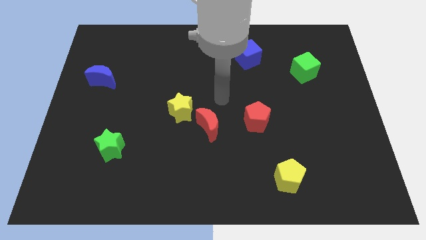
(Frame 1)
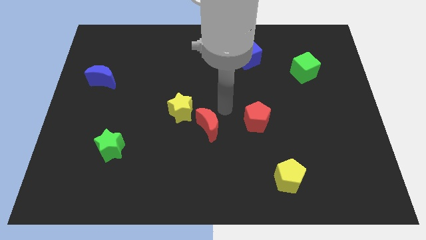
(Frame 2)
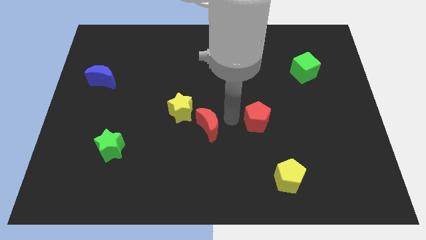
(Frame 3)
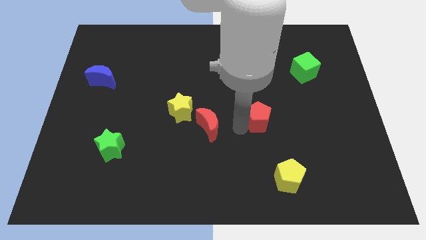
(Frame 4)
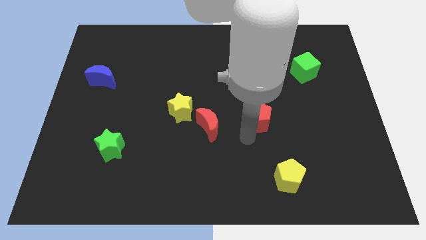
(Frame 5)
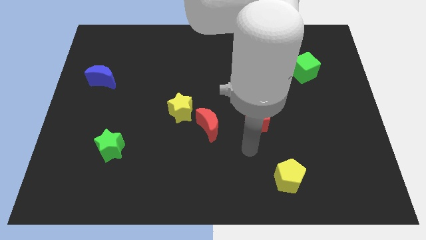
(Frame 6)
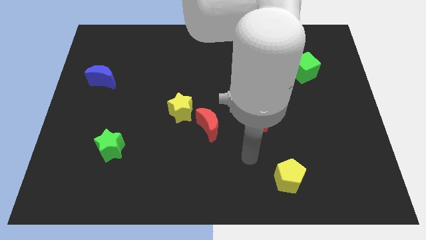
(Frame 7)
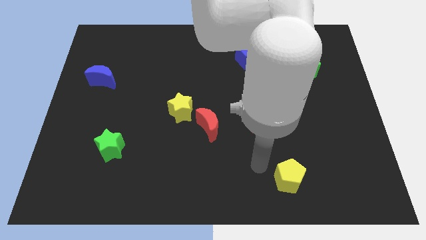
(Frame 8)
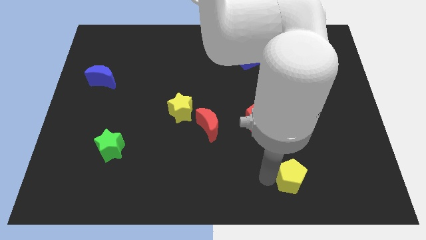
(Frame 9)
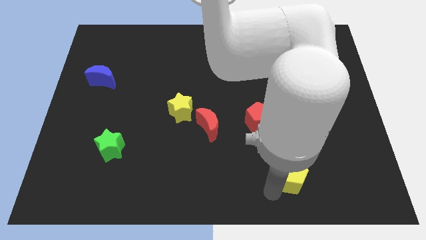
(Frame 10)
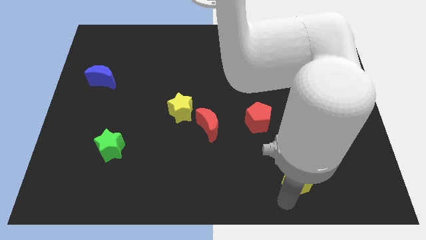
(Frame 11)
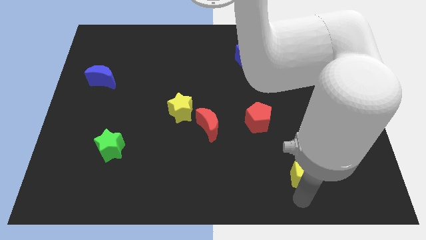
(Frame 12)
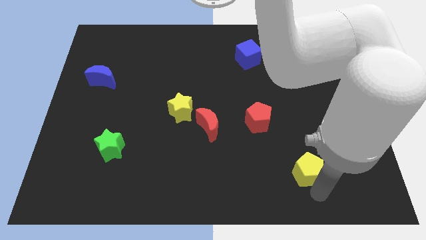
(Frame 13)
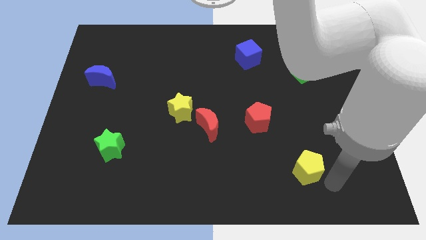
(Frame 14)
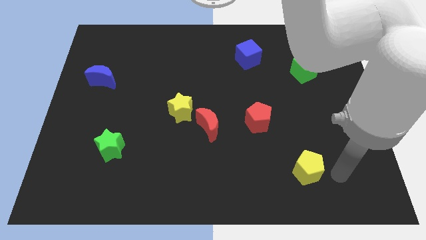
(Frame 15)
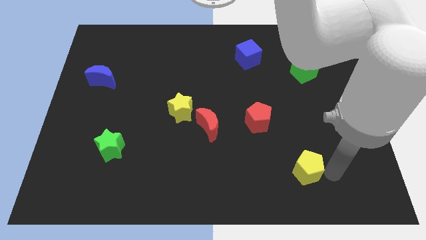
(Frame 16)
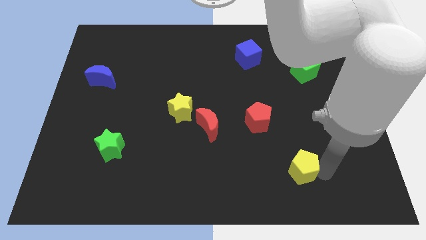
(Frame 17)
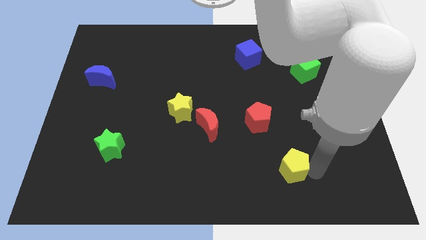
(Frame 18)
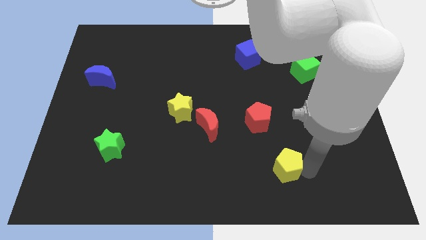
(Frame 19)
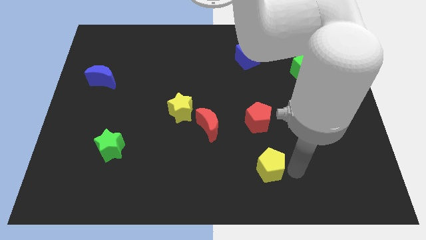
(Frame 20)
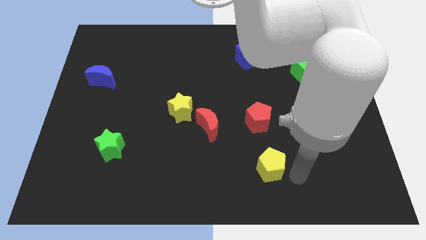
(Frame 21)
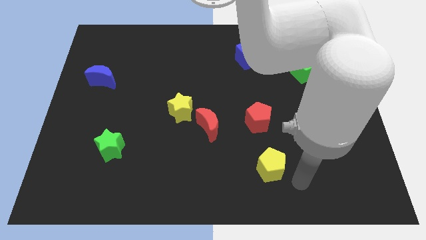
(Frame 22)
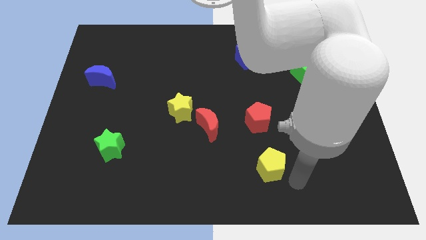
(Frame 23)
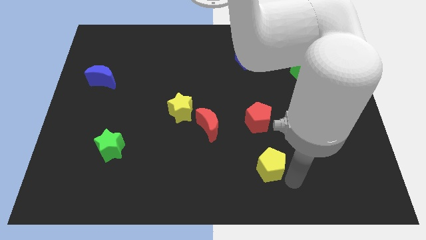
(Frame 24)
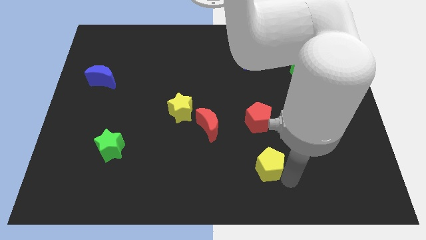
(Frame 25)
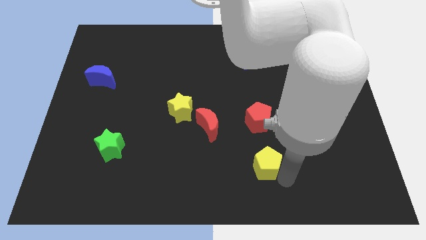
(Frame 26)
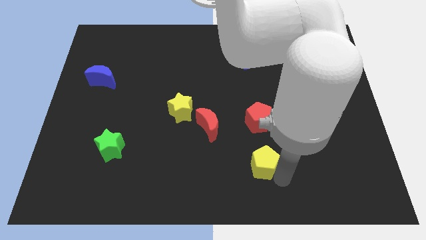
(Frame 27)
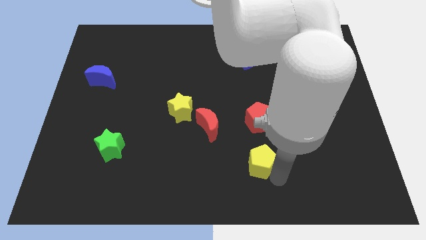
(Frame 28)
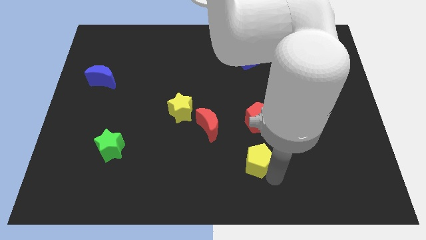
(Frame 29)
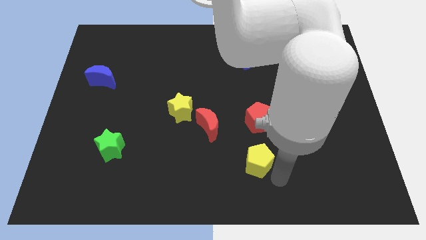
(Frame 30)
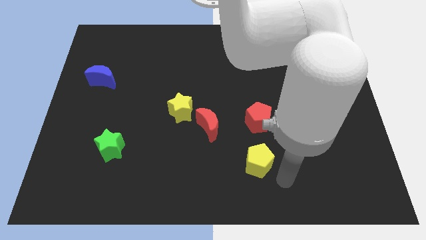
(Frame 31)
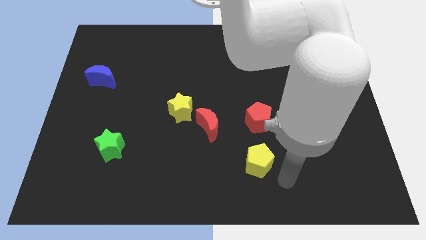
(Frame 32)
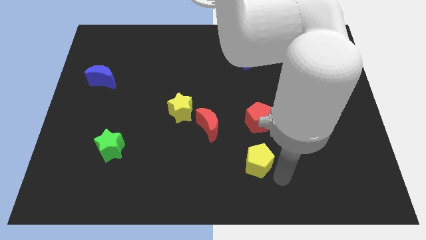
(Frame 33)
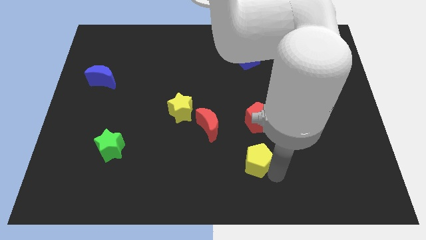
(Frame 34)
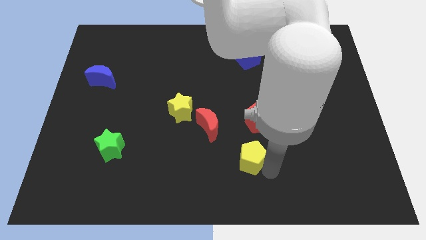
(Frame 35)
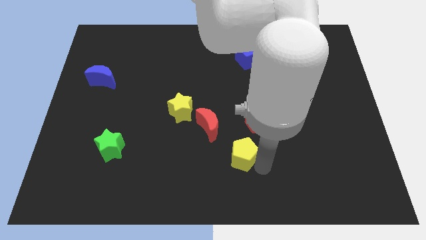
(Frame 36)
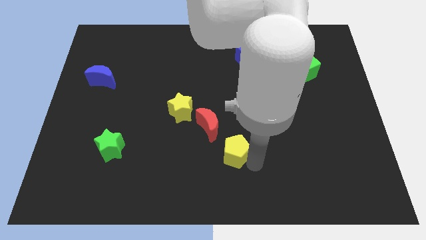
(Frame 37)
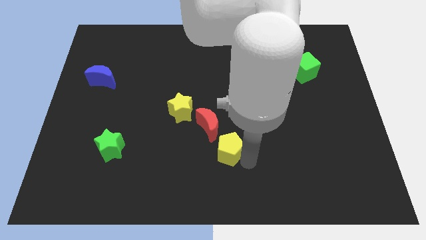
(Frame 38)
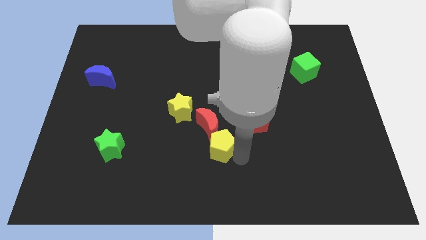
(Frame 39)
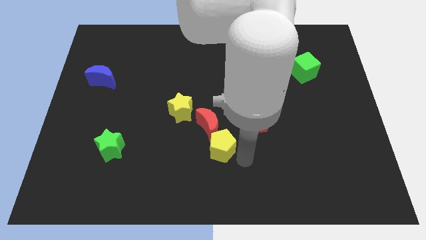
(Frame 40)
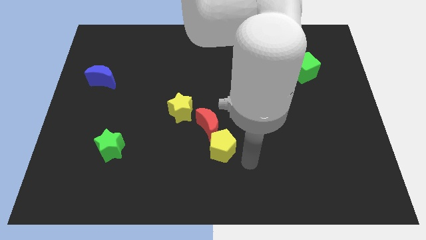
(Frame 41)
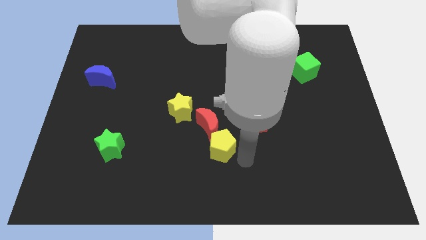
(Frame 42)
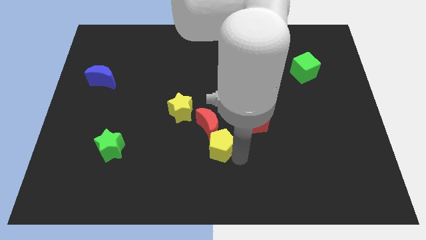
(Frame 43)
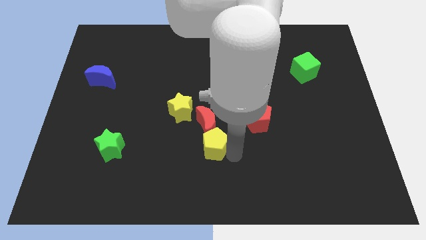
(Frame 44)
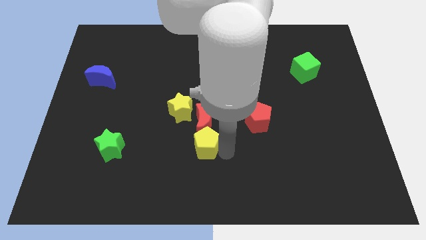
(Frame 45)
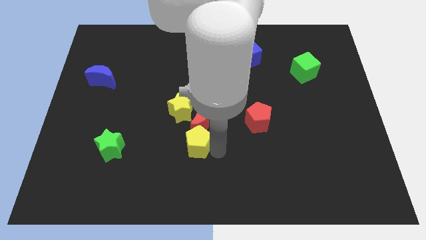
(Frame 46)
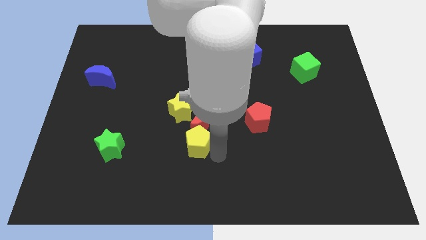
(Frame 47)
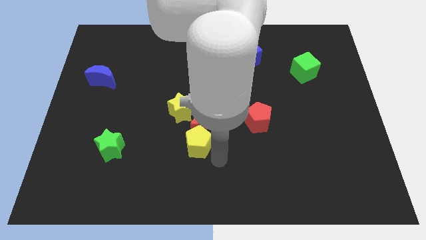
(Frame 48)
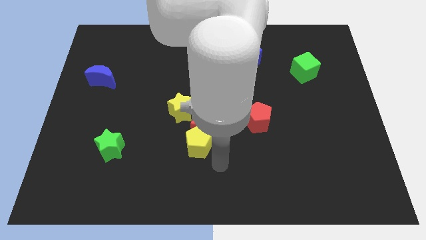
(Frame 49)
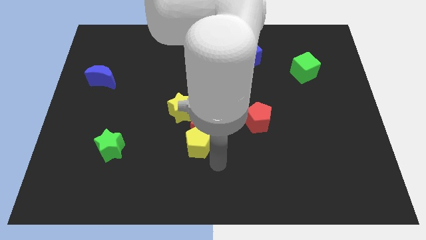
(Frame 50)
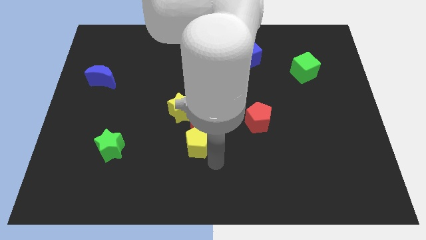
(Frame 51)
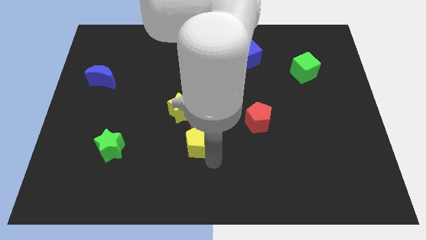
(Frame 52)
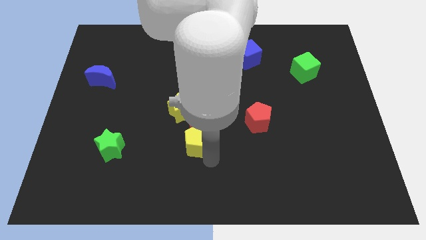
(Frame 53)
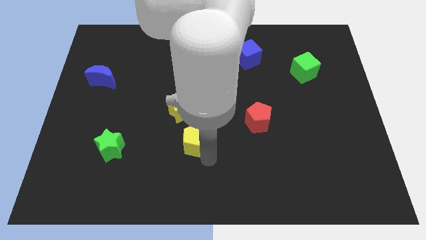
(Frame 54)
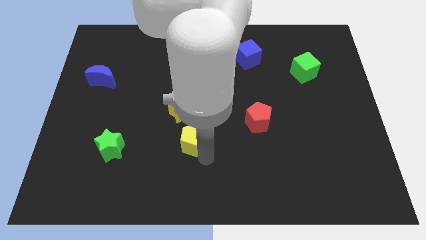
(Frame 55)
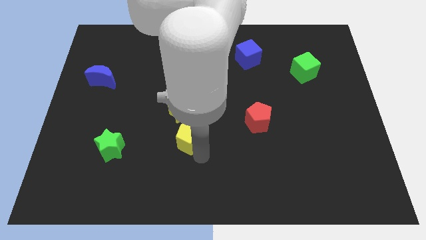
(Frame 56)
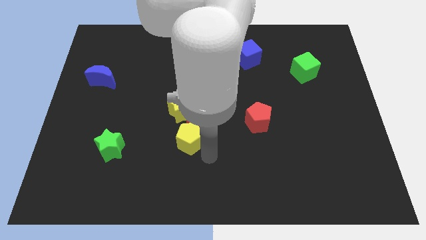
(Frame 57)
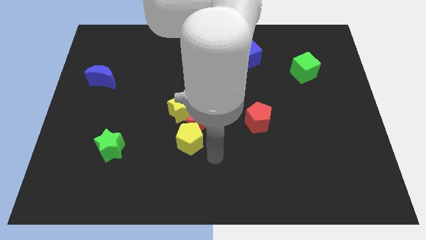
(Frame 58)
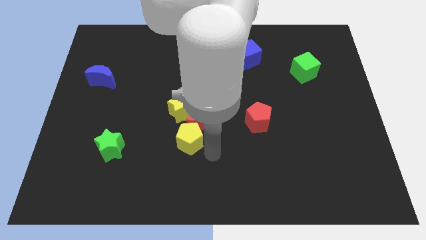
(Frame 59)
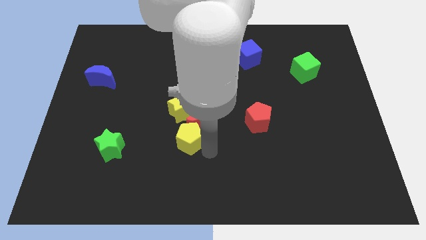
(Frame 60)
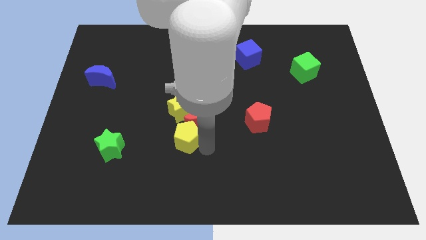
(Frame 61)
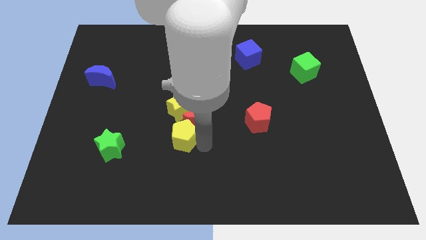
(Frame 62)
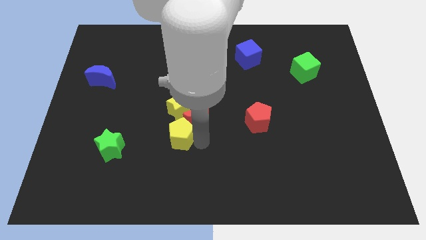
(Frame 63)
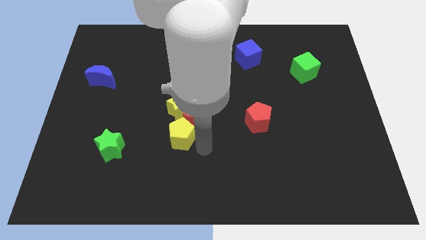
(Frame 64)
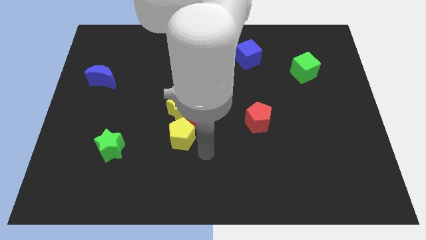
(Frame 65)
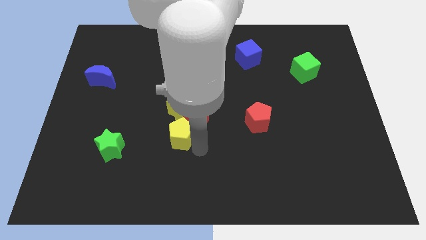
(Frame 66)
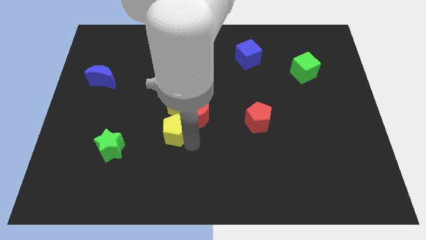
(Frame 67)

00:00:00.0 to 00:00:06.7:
push the yellow pentagon just left of the red moon

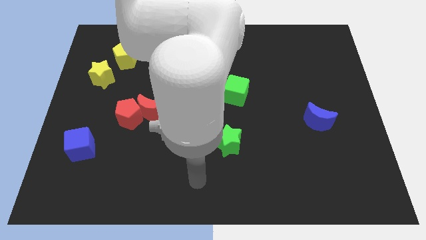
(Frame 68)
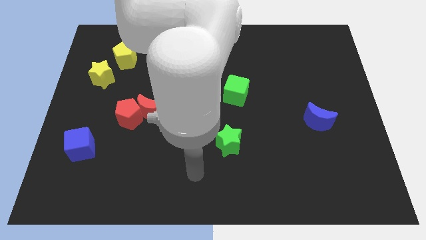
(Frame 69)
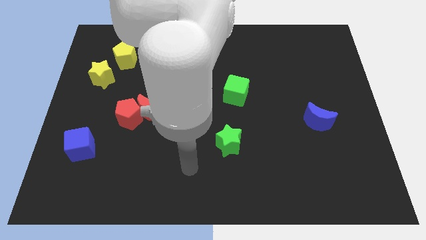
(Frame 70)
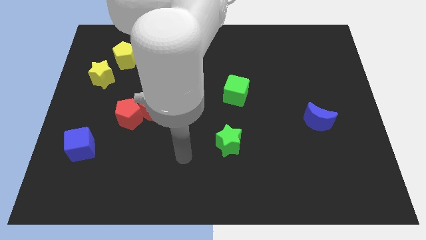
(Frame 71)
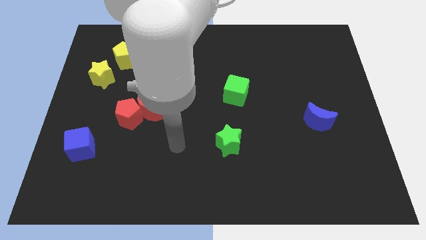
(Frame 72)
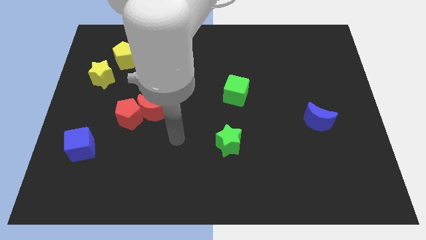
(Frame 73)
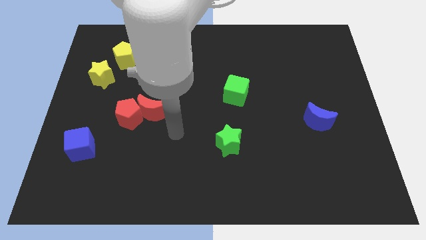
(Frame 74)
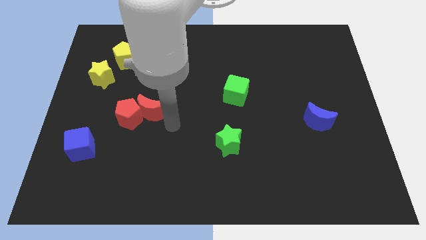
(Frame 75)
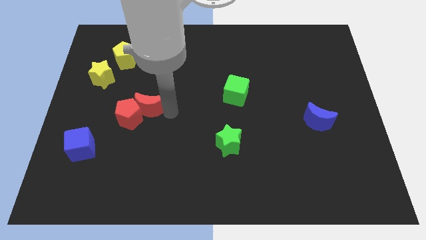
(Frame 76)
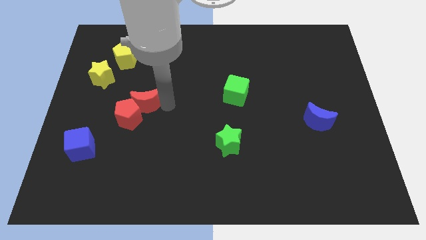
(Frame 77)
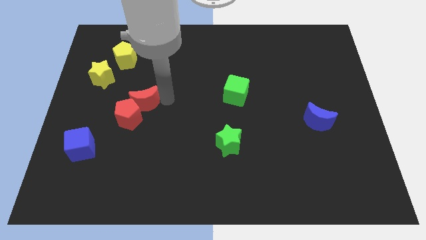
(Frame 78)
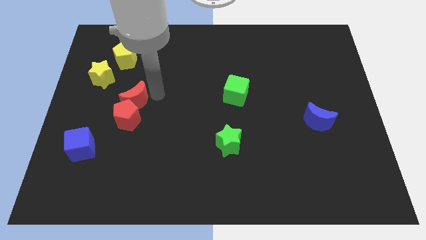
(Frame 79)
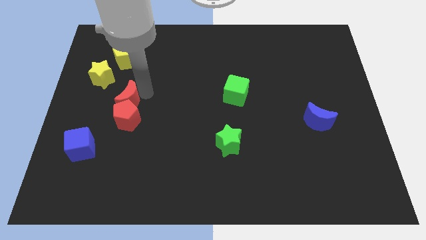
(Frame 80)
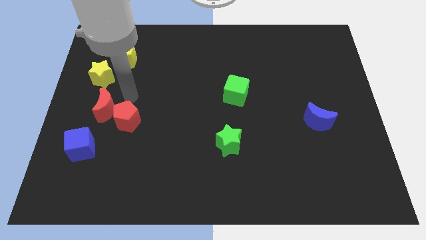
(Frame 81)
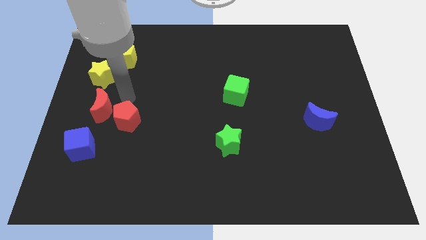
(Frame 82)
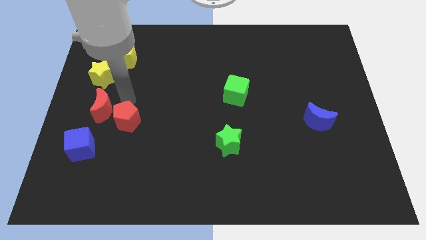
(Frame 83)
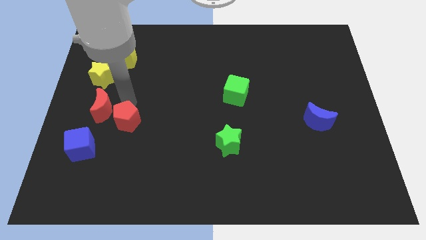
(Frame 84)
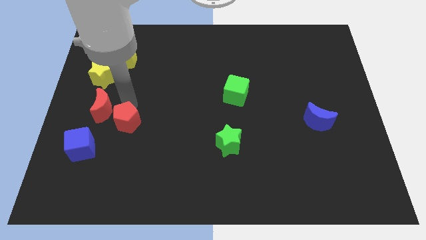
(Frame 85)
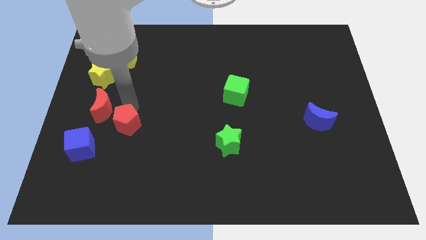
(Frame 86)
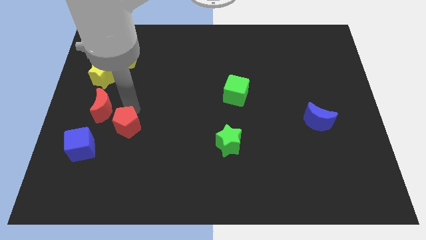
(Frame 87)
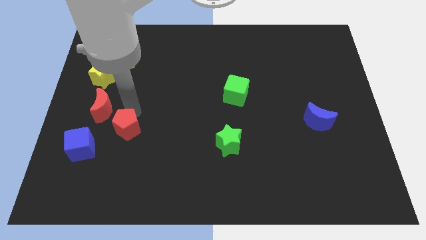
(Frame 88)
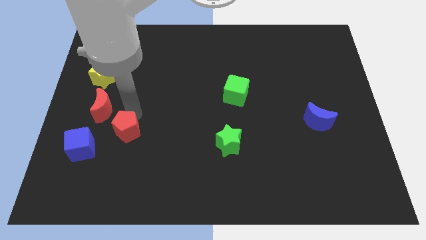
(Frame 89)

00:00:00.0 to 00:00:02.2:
slide the red pentagon right of the blue cube
